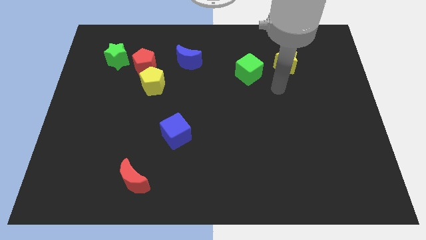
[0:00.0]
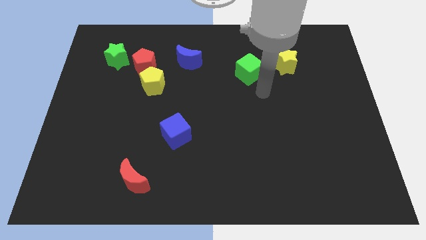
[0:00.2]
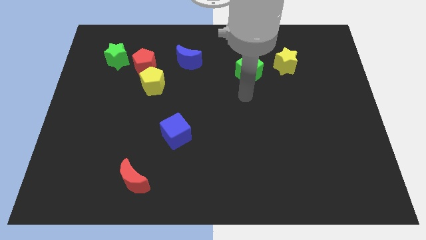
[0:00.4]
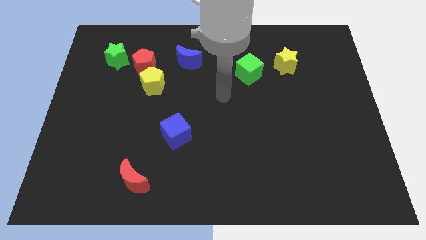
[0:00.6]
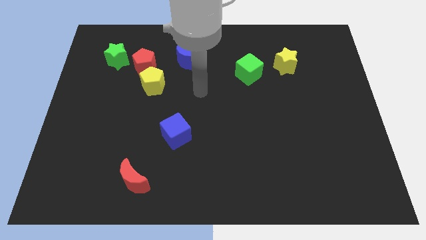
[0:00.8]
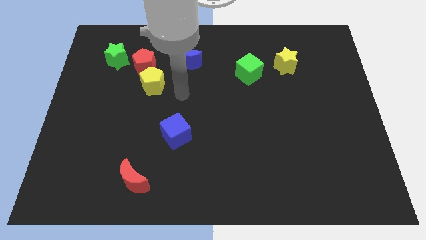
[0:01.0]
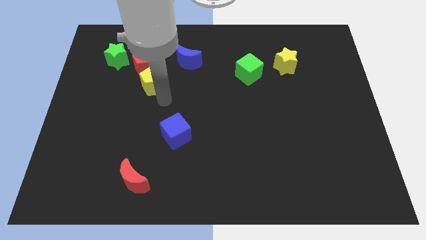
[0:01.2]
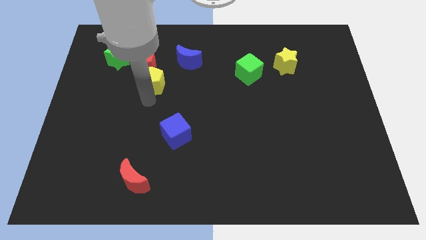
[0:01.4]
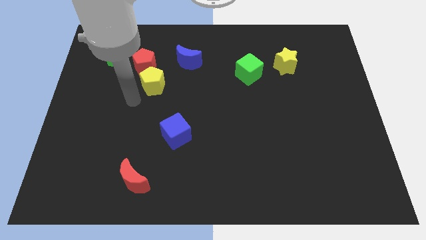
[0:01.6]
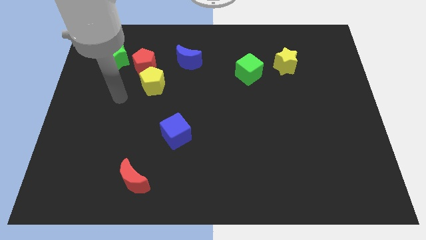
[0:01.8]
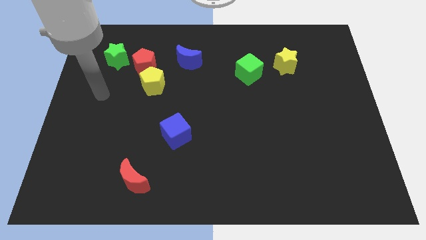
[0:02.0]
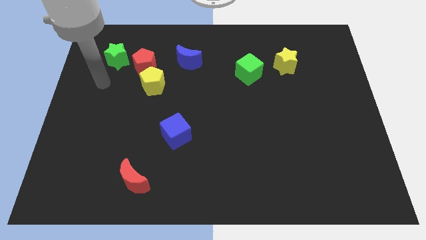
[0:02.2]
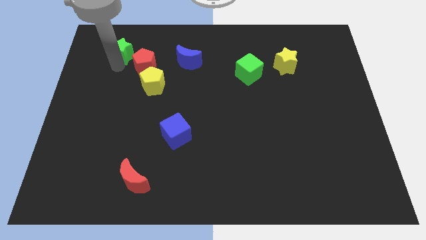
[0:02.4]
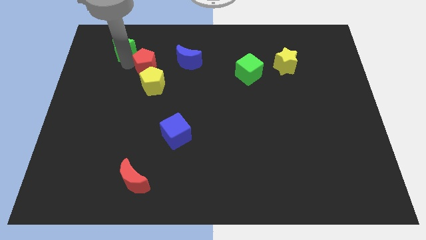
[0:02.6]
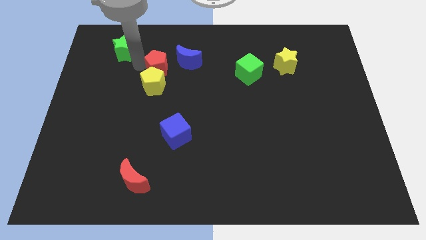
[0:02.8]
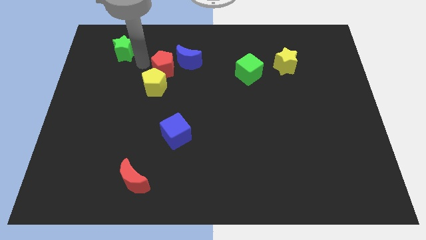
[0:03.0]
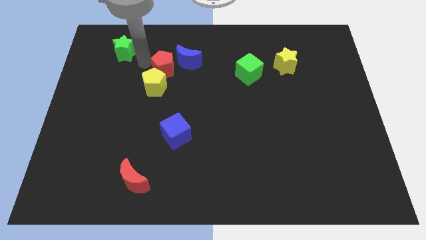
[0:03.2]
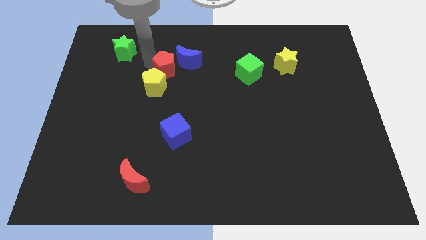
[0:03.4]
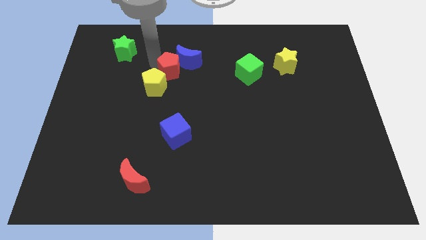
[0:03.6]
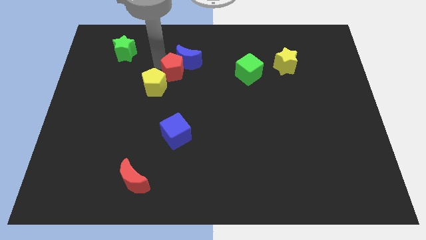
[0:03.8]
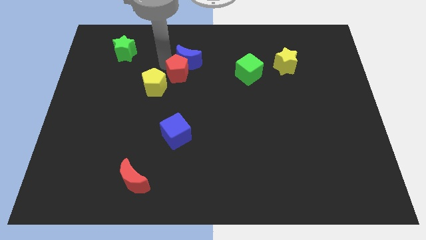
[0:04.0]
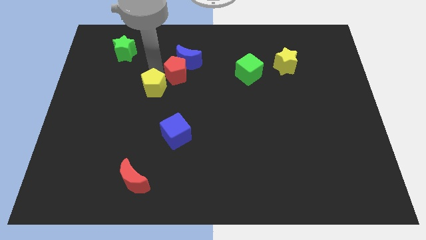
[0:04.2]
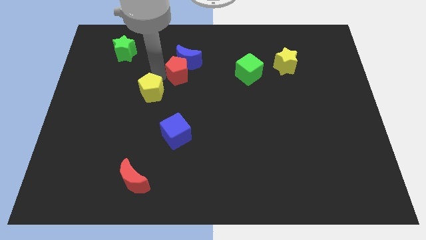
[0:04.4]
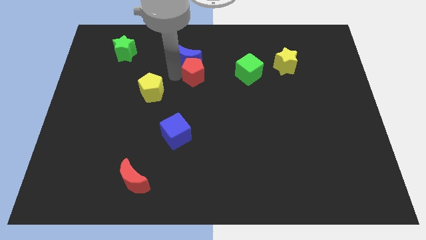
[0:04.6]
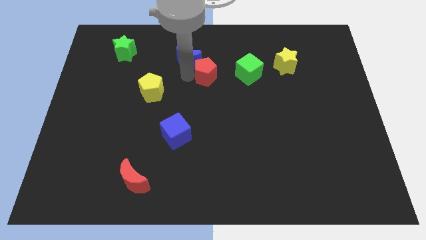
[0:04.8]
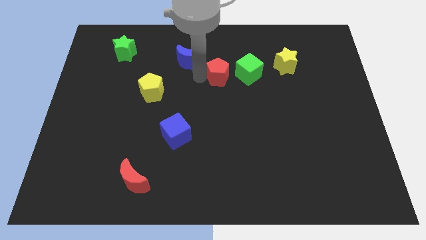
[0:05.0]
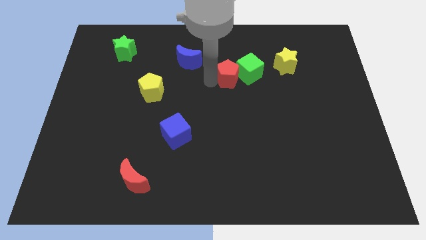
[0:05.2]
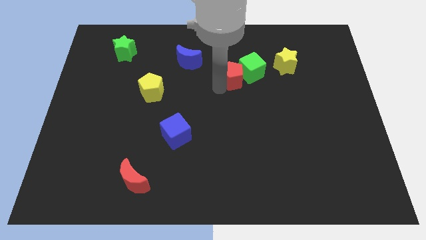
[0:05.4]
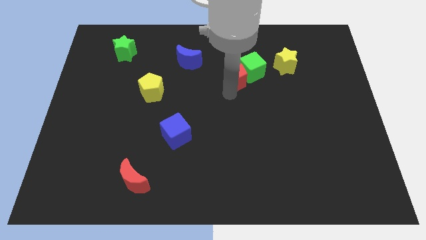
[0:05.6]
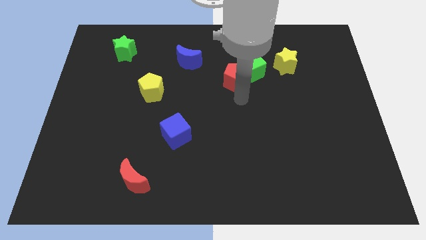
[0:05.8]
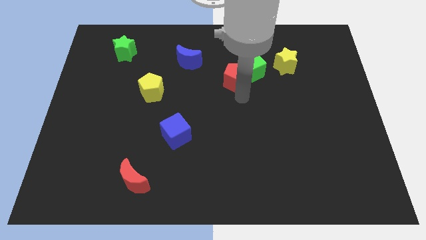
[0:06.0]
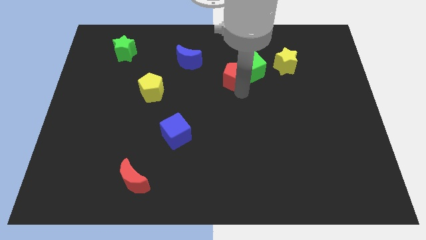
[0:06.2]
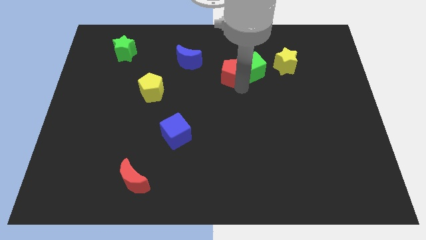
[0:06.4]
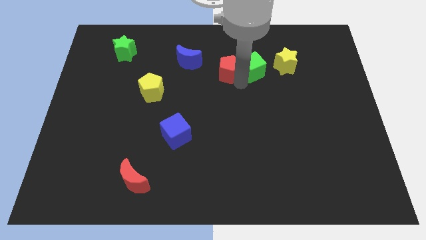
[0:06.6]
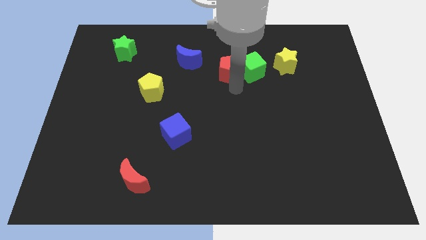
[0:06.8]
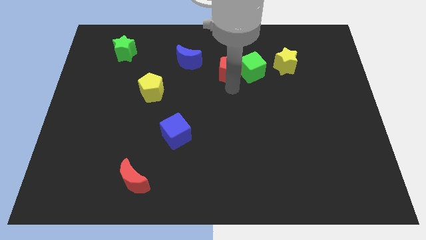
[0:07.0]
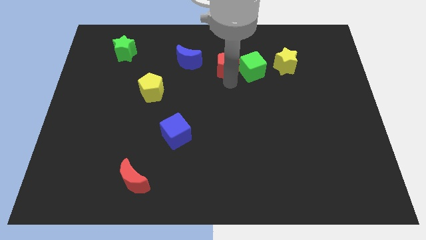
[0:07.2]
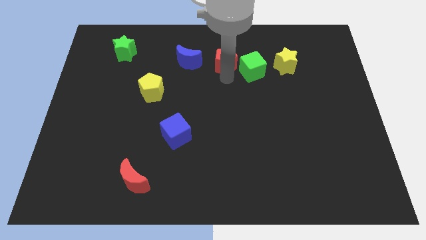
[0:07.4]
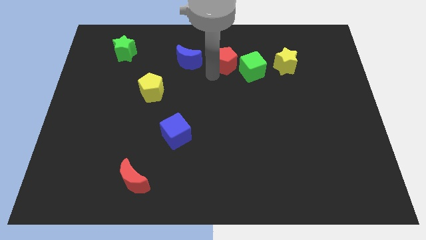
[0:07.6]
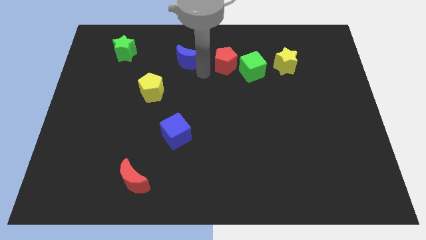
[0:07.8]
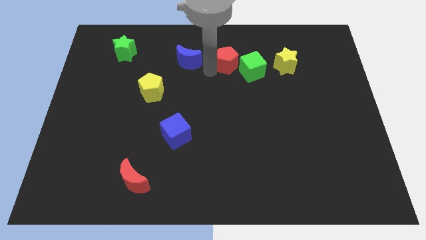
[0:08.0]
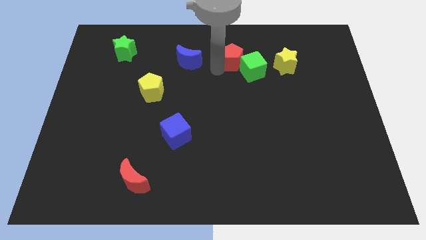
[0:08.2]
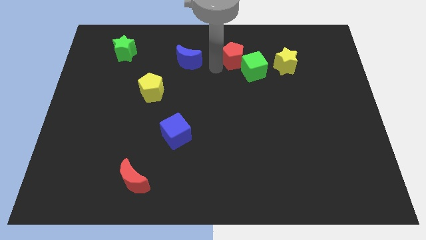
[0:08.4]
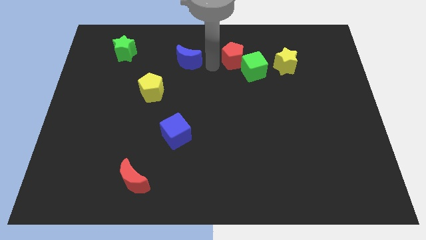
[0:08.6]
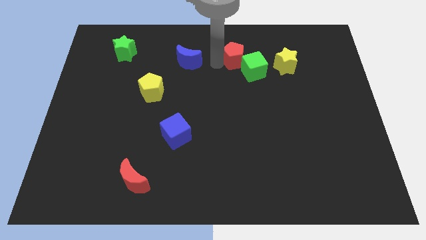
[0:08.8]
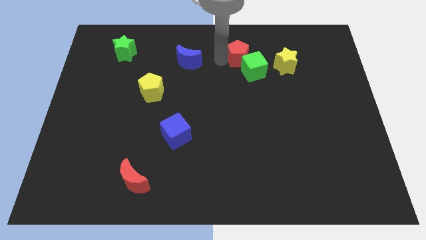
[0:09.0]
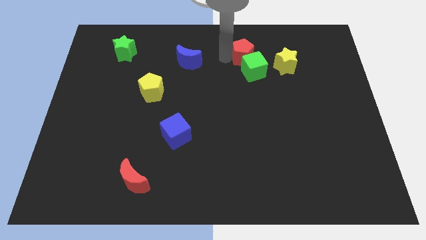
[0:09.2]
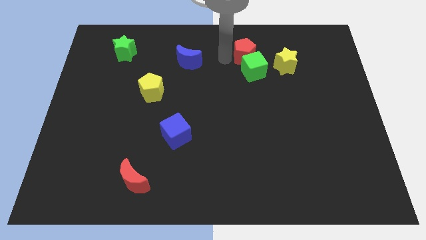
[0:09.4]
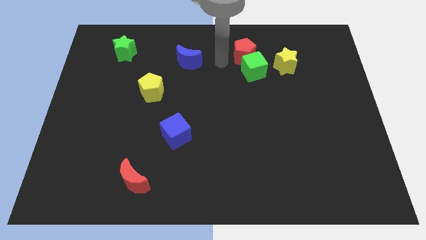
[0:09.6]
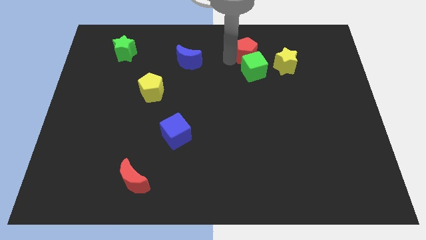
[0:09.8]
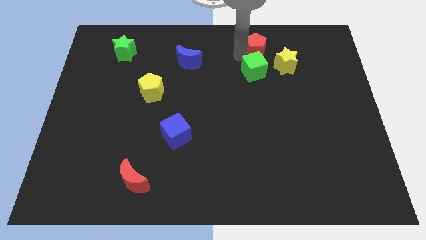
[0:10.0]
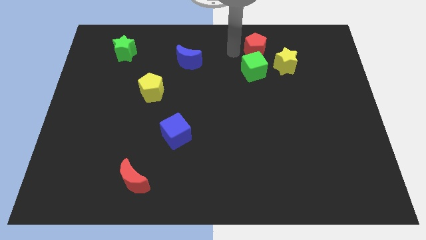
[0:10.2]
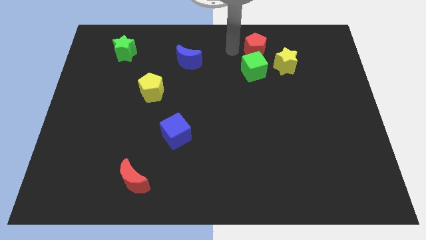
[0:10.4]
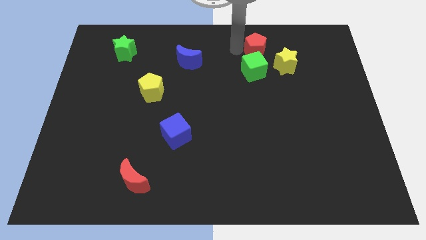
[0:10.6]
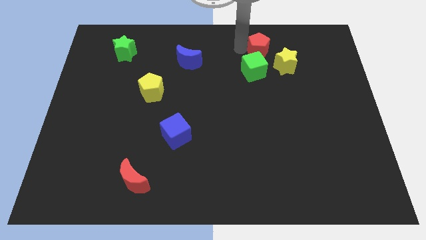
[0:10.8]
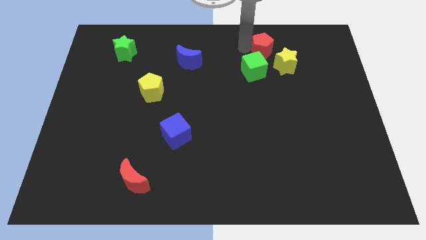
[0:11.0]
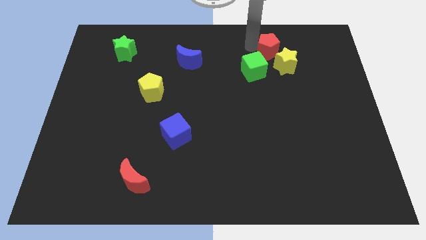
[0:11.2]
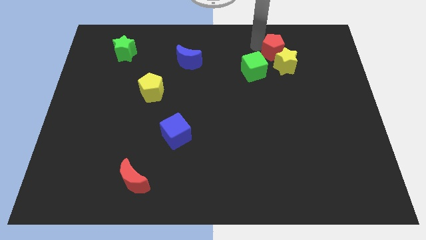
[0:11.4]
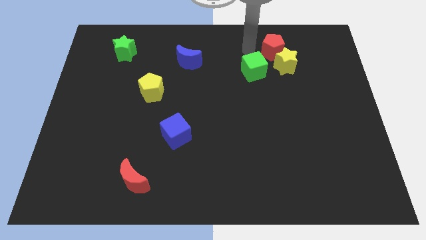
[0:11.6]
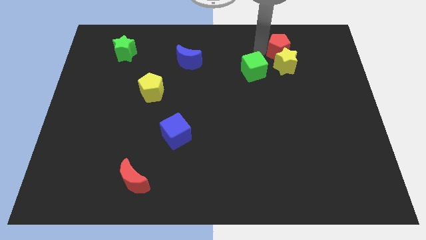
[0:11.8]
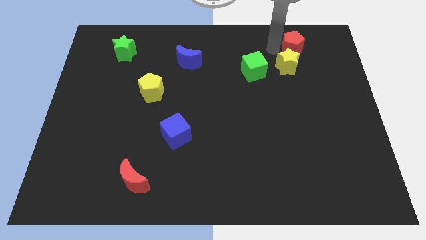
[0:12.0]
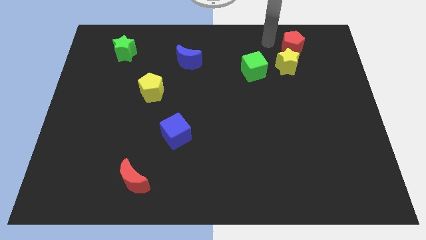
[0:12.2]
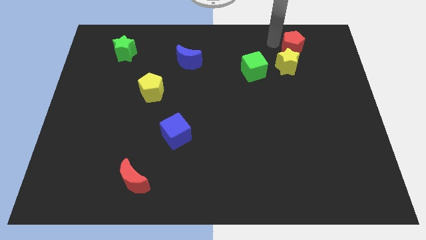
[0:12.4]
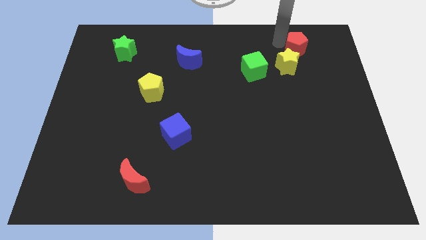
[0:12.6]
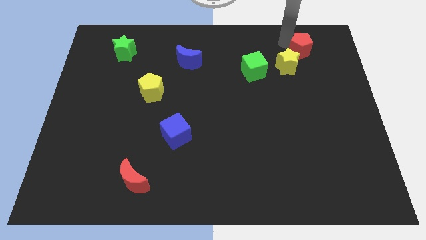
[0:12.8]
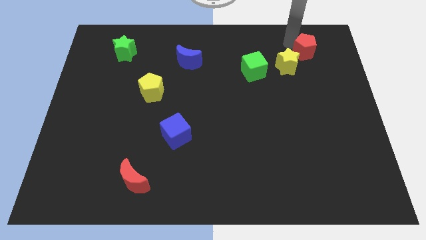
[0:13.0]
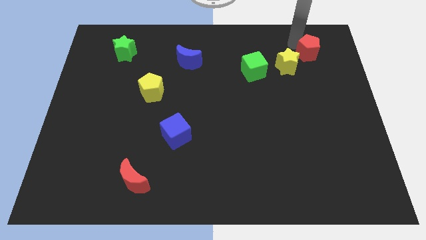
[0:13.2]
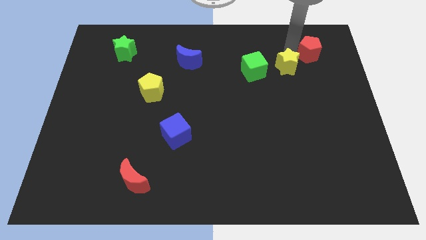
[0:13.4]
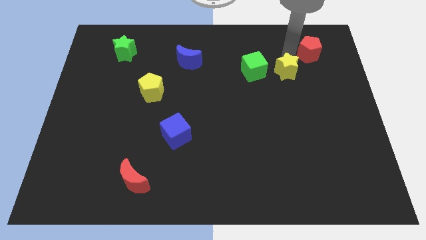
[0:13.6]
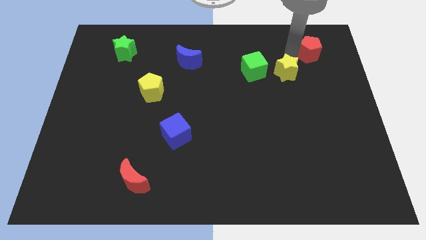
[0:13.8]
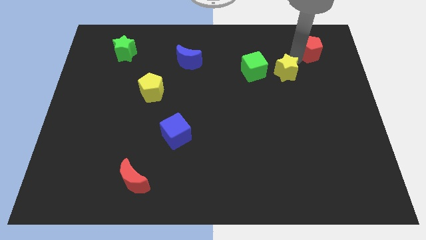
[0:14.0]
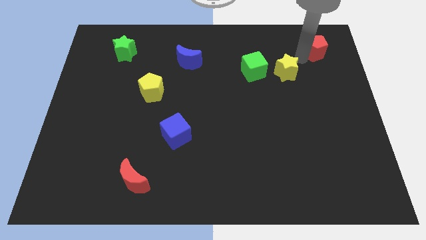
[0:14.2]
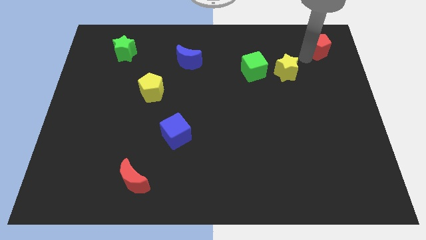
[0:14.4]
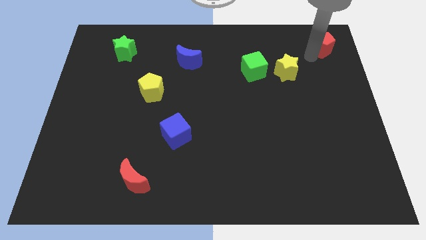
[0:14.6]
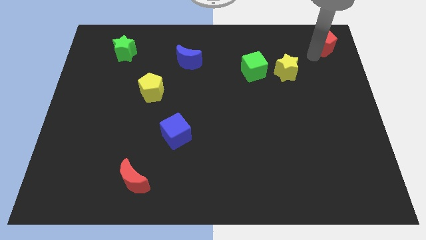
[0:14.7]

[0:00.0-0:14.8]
put the red pentagon to the top right corner
